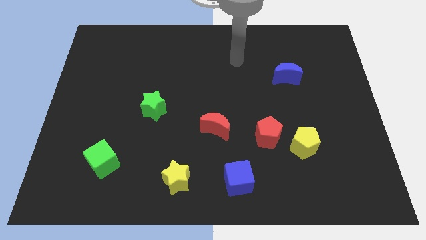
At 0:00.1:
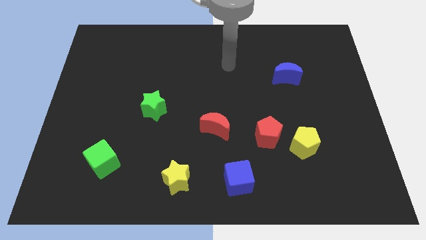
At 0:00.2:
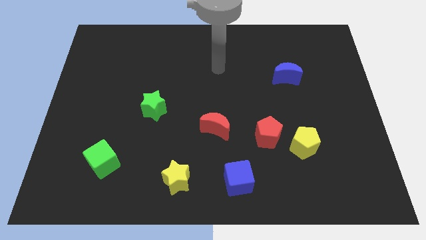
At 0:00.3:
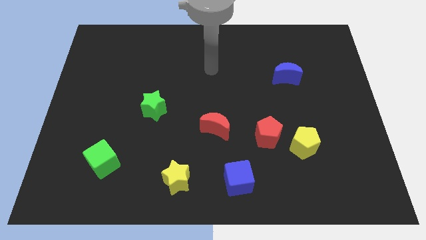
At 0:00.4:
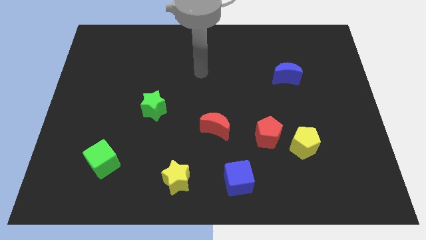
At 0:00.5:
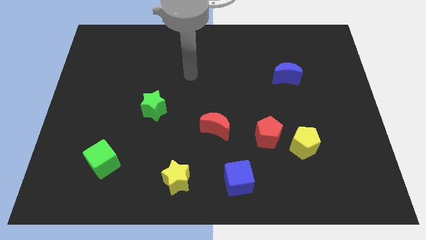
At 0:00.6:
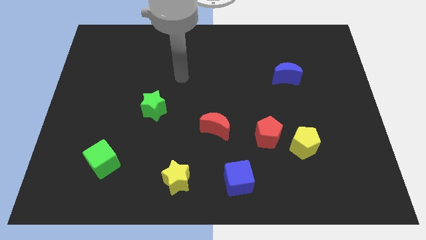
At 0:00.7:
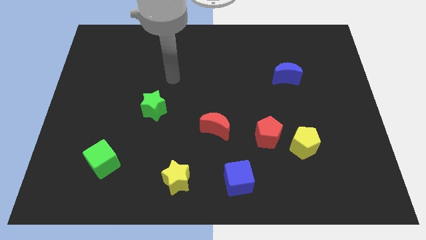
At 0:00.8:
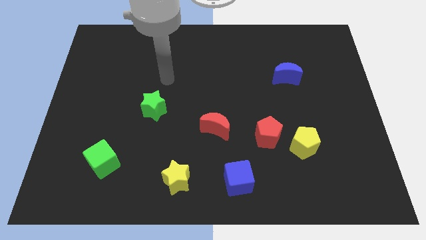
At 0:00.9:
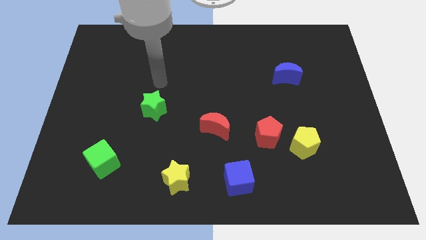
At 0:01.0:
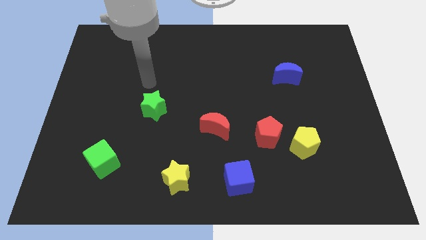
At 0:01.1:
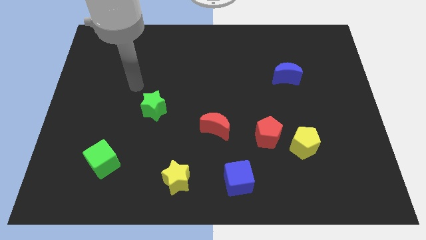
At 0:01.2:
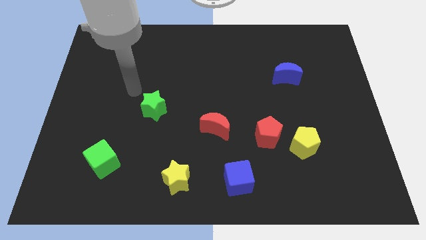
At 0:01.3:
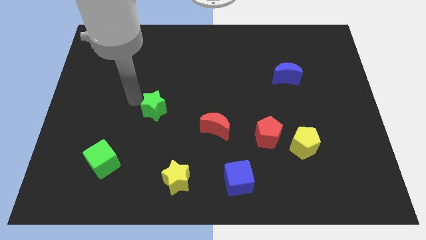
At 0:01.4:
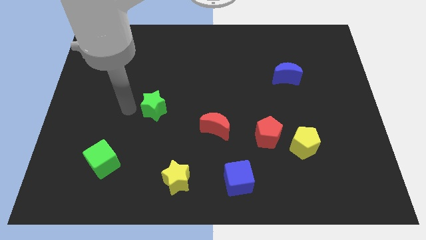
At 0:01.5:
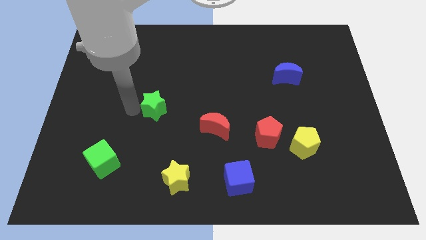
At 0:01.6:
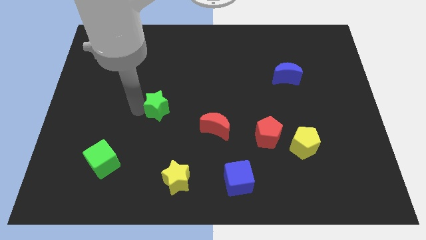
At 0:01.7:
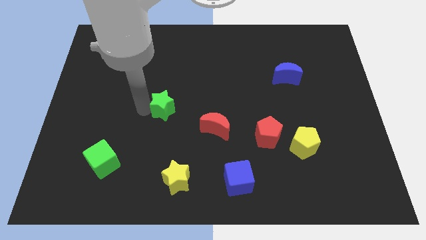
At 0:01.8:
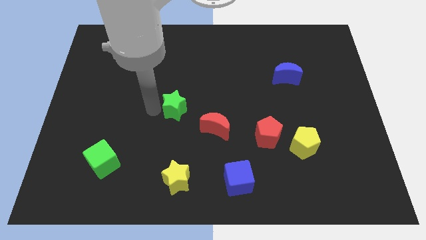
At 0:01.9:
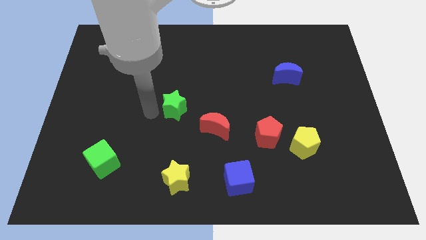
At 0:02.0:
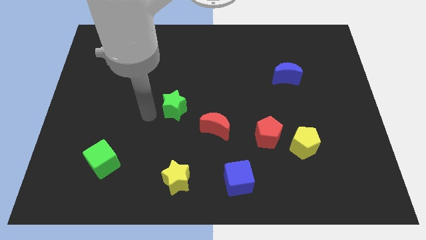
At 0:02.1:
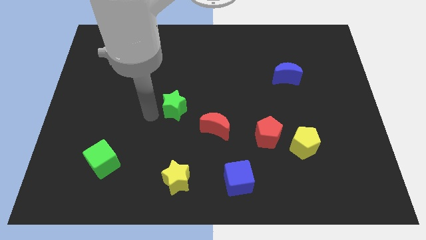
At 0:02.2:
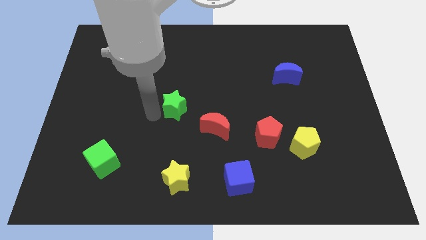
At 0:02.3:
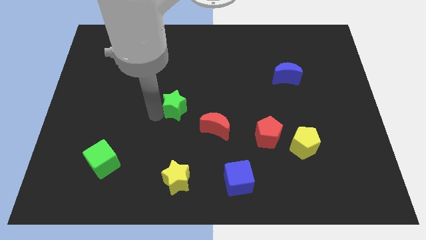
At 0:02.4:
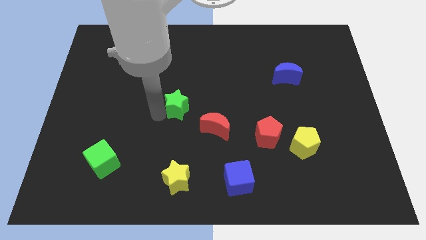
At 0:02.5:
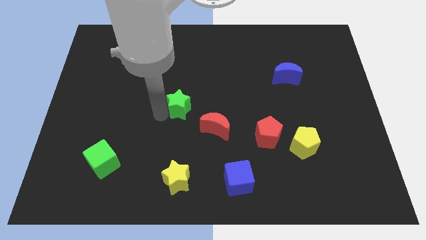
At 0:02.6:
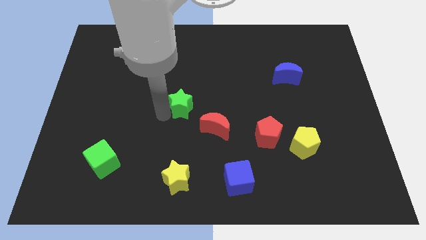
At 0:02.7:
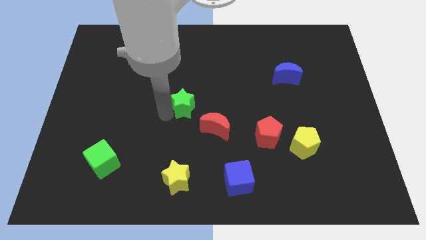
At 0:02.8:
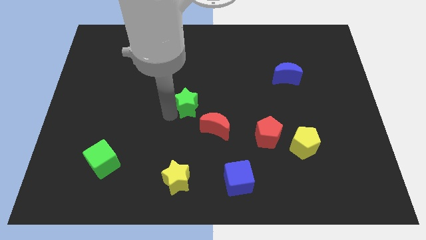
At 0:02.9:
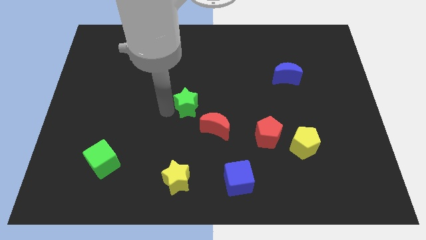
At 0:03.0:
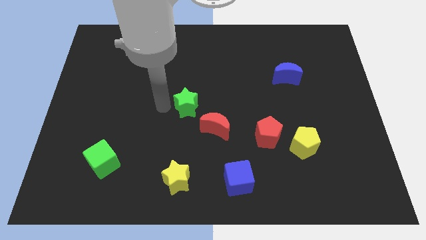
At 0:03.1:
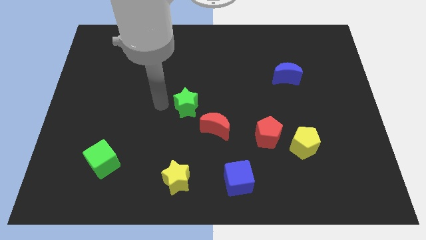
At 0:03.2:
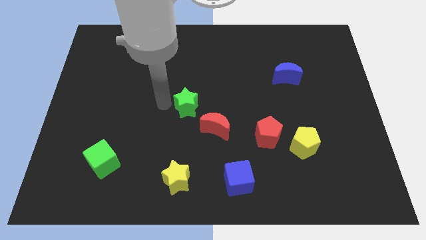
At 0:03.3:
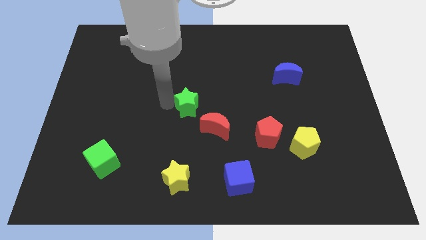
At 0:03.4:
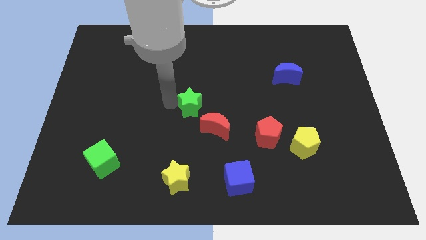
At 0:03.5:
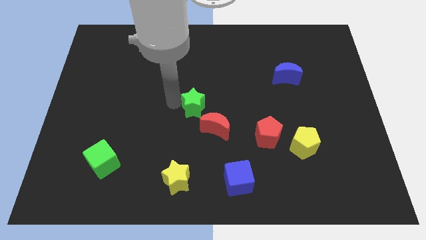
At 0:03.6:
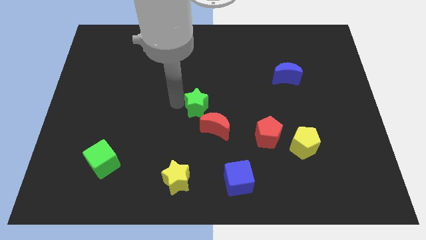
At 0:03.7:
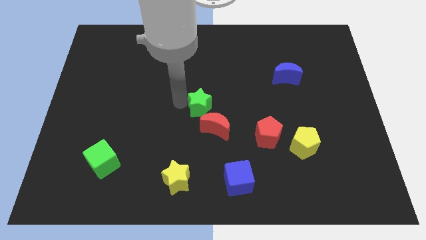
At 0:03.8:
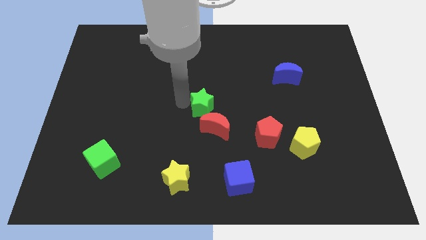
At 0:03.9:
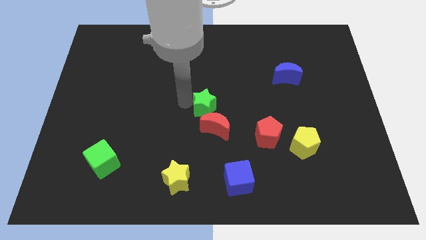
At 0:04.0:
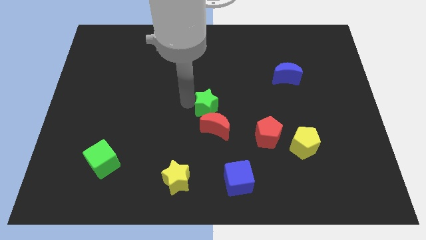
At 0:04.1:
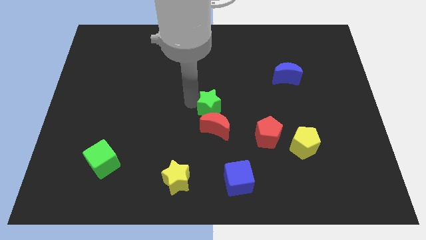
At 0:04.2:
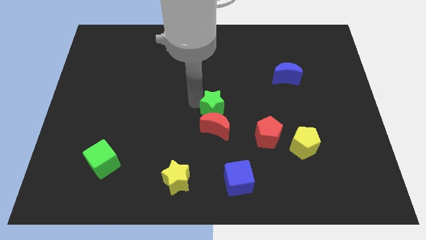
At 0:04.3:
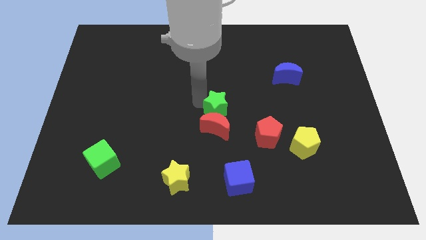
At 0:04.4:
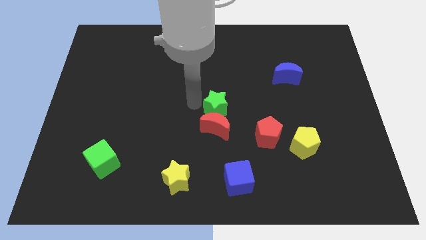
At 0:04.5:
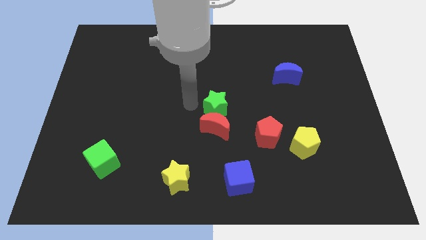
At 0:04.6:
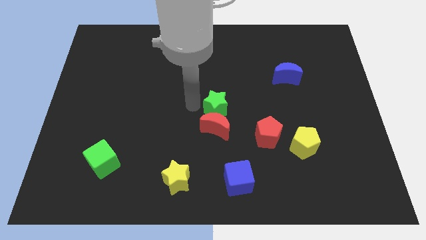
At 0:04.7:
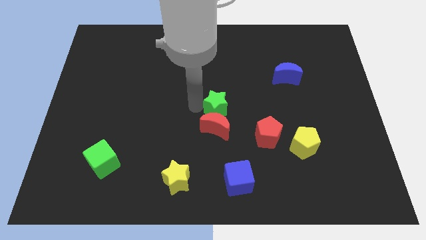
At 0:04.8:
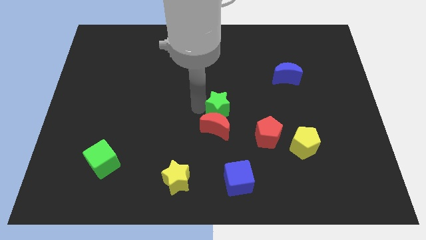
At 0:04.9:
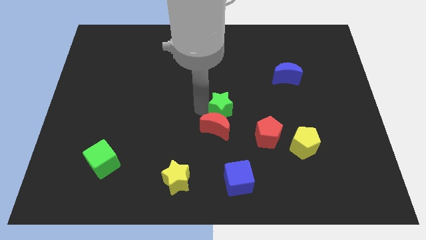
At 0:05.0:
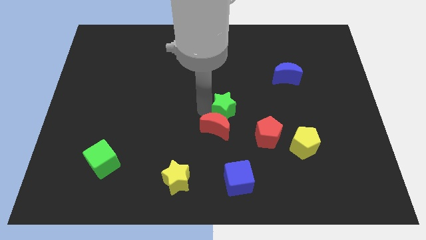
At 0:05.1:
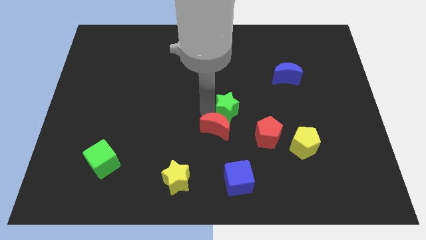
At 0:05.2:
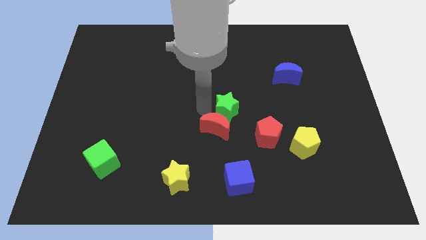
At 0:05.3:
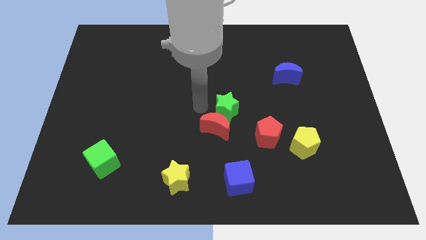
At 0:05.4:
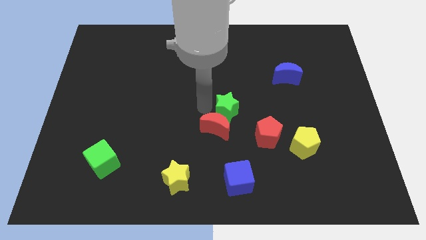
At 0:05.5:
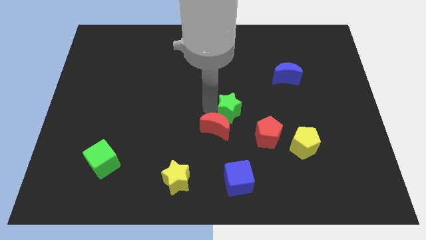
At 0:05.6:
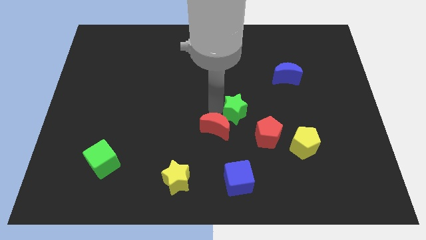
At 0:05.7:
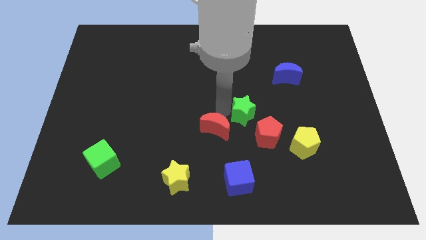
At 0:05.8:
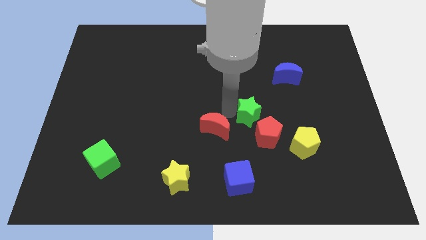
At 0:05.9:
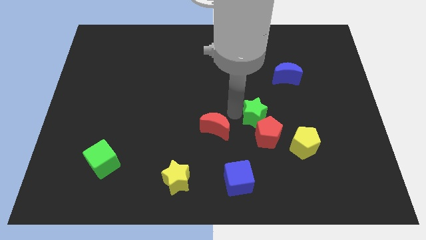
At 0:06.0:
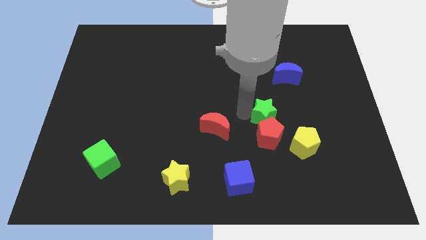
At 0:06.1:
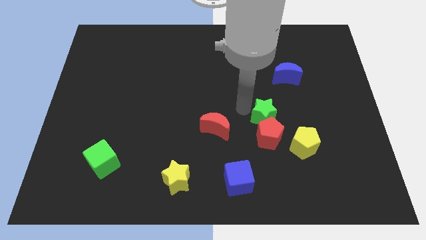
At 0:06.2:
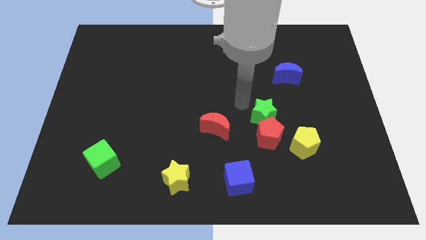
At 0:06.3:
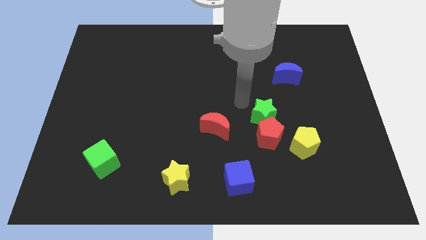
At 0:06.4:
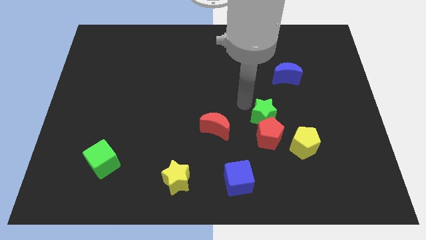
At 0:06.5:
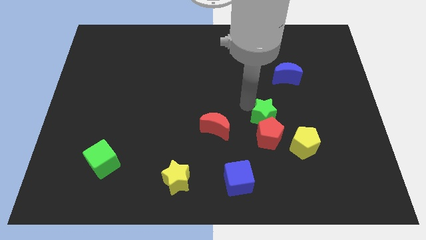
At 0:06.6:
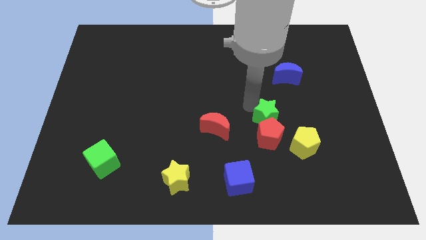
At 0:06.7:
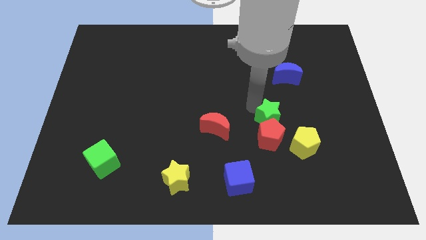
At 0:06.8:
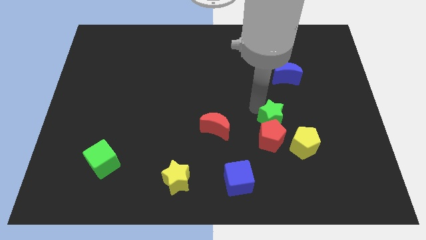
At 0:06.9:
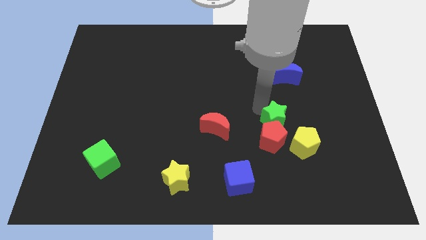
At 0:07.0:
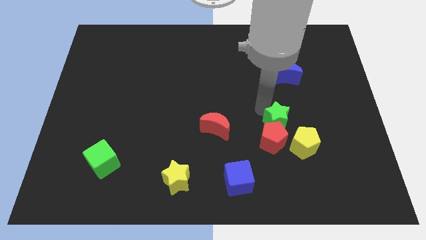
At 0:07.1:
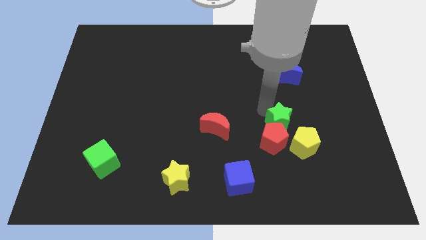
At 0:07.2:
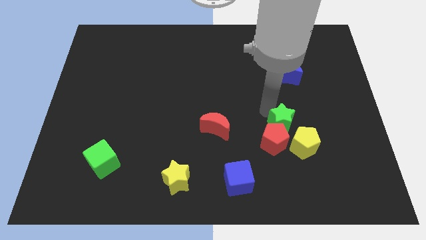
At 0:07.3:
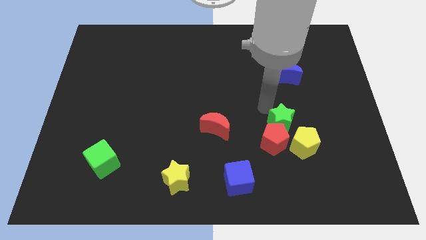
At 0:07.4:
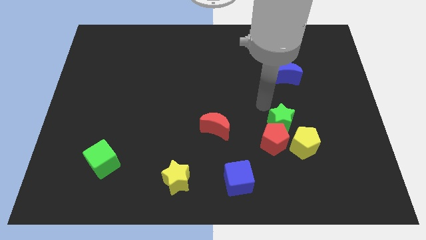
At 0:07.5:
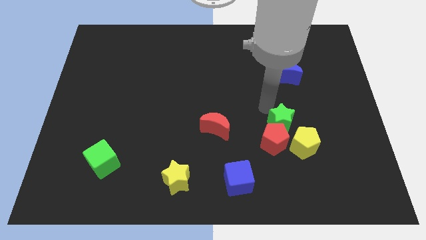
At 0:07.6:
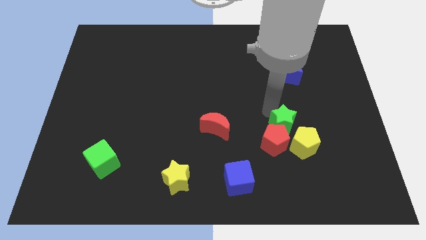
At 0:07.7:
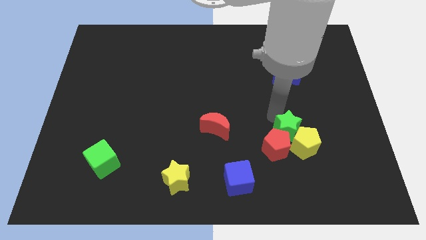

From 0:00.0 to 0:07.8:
move the green star close to the yellow pentagon
